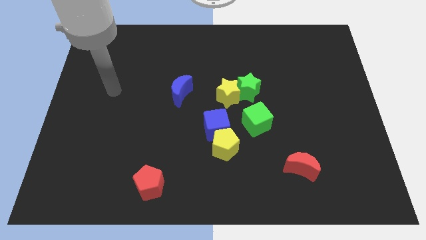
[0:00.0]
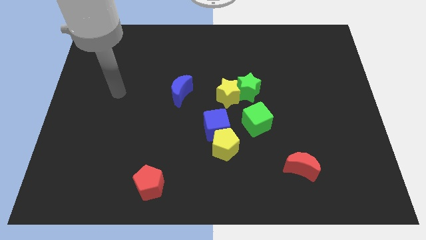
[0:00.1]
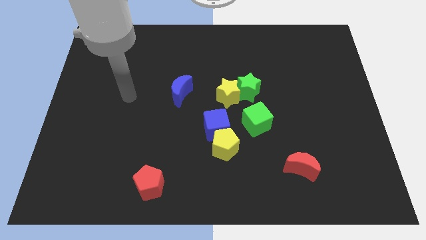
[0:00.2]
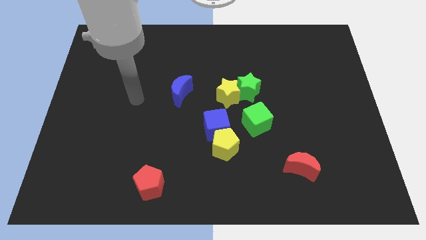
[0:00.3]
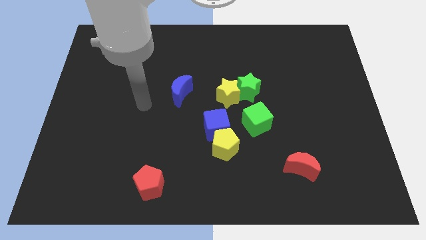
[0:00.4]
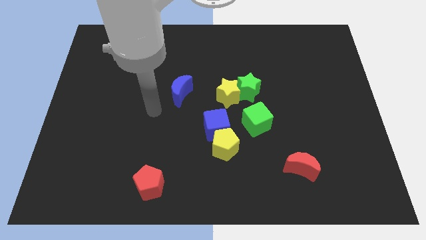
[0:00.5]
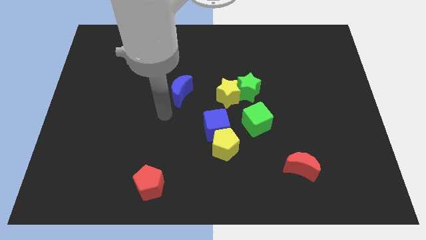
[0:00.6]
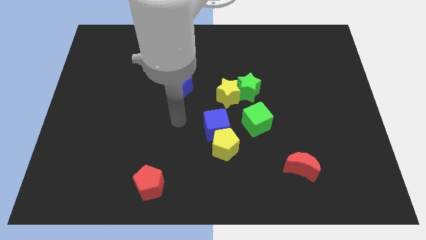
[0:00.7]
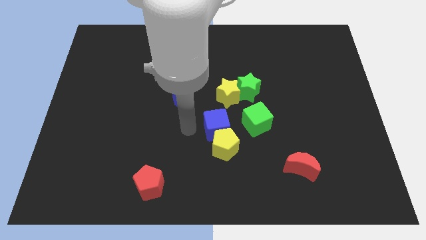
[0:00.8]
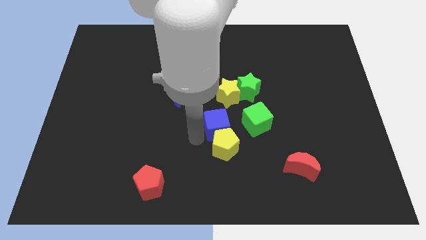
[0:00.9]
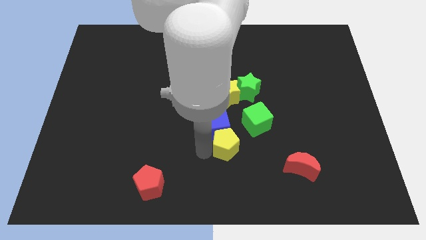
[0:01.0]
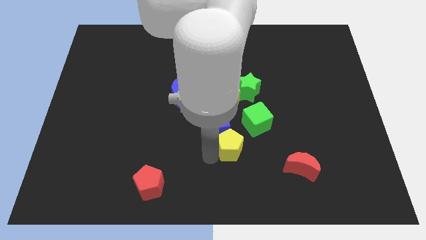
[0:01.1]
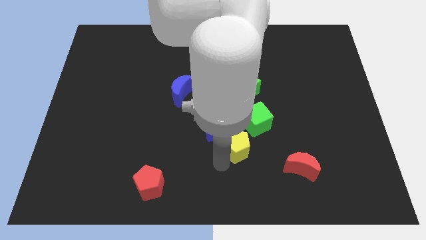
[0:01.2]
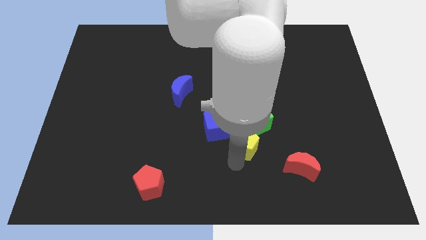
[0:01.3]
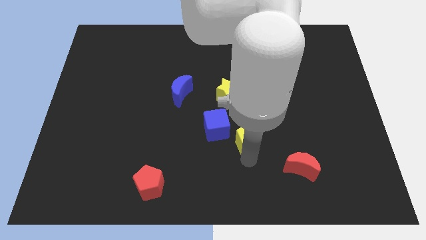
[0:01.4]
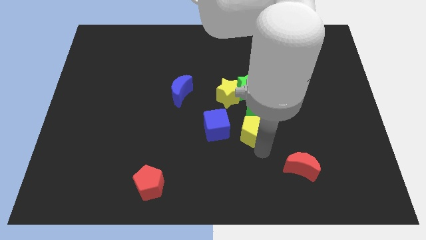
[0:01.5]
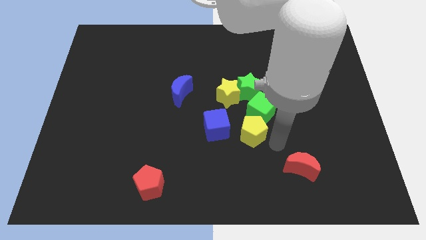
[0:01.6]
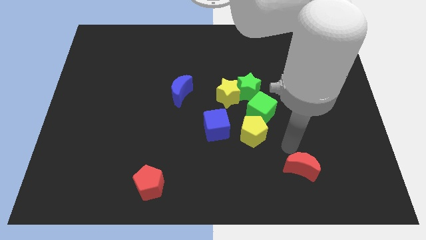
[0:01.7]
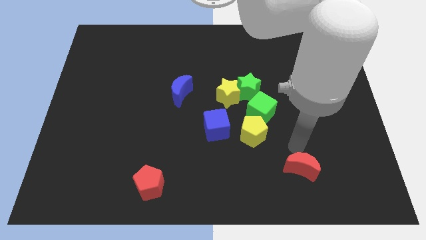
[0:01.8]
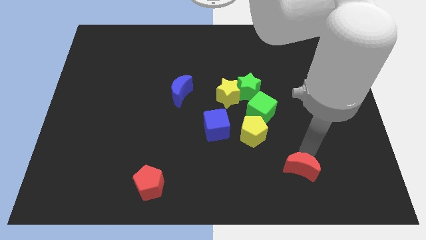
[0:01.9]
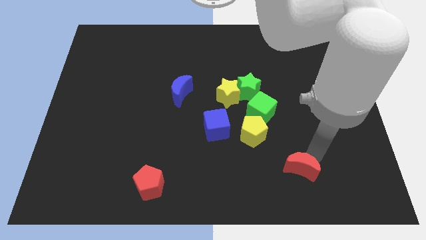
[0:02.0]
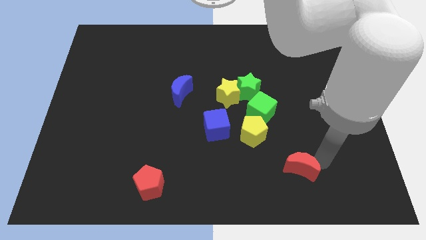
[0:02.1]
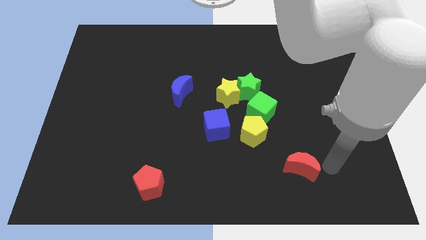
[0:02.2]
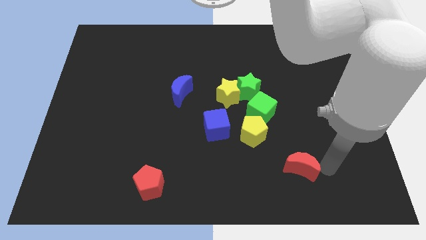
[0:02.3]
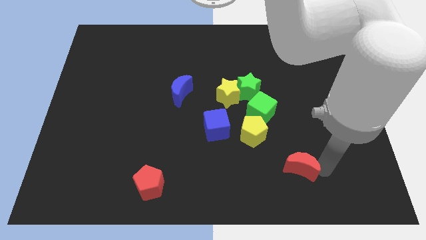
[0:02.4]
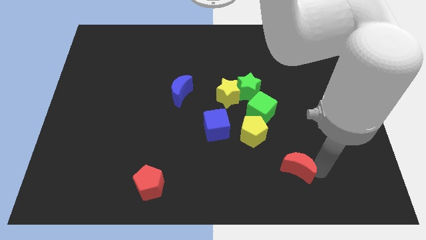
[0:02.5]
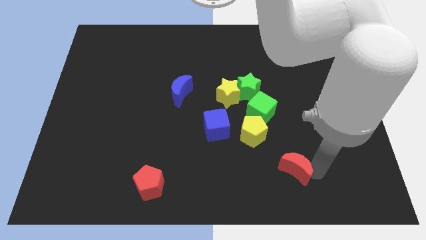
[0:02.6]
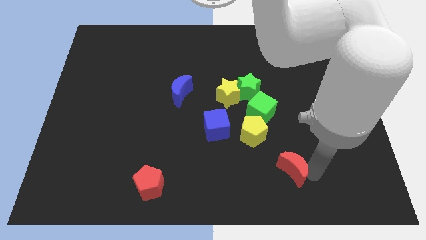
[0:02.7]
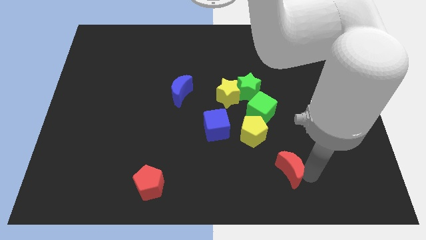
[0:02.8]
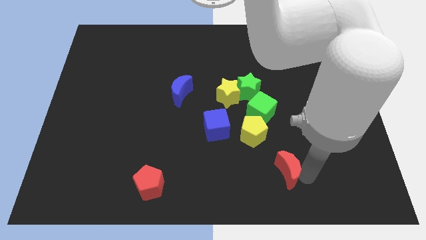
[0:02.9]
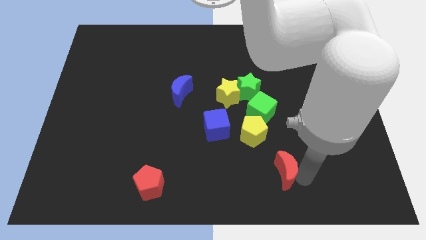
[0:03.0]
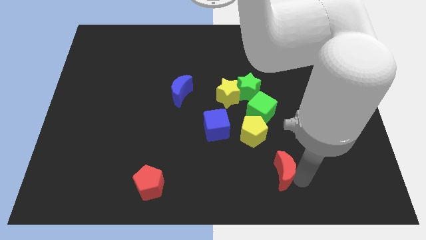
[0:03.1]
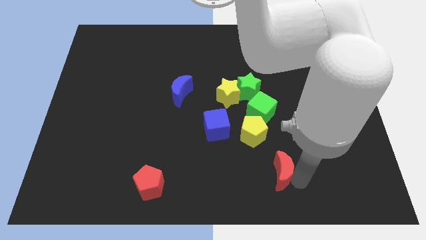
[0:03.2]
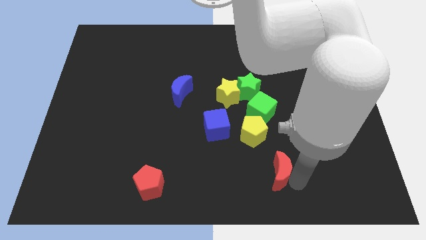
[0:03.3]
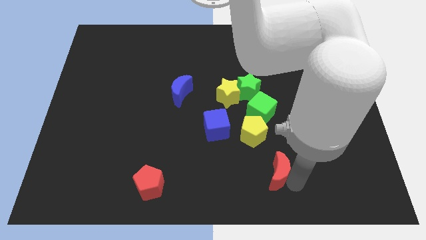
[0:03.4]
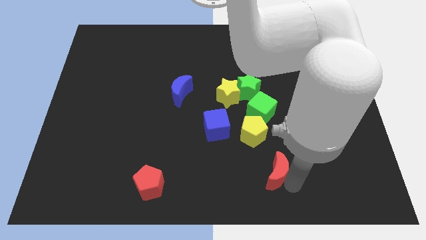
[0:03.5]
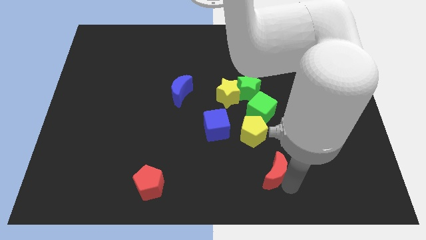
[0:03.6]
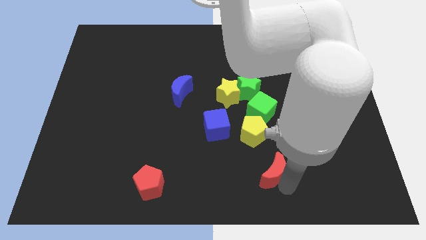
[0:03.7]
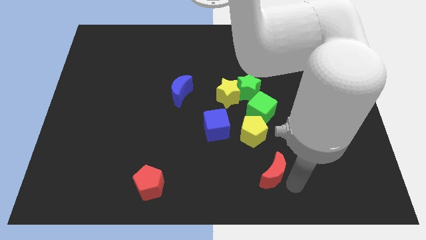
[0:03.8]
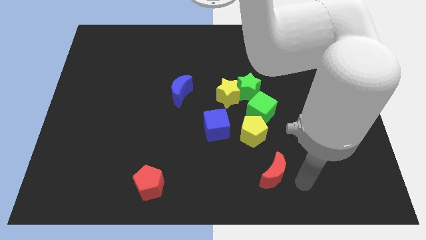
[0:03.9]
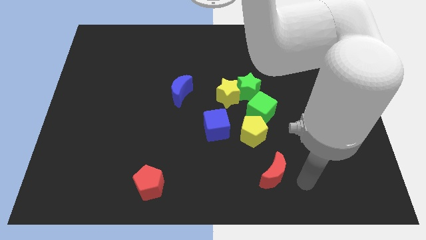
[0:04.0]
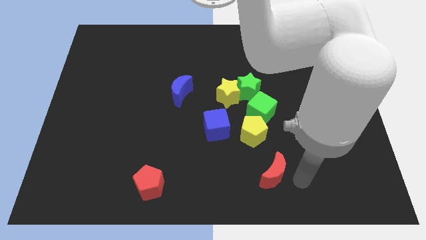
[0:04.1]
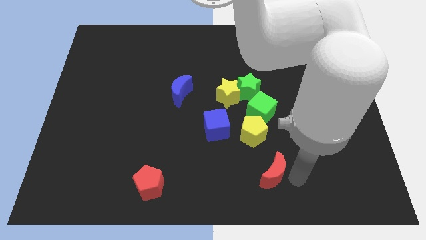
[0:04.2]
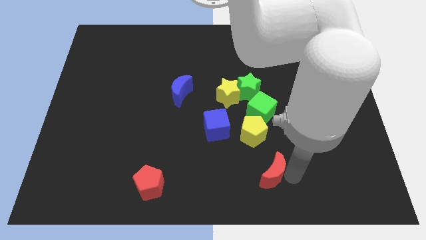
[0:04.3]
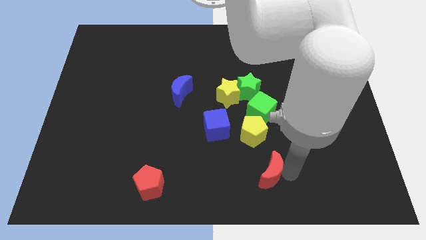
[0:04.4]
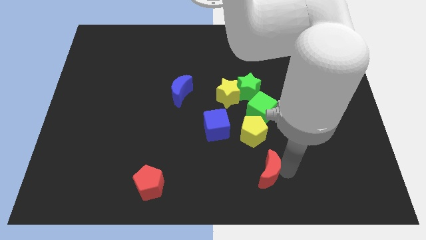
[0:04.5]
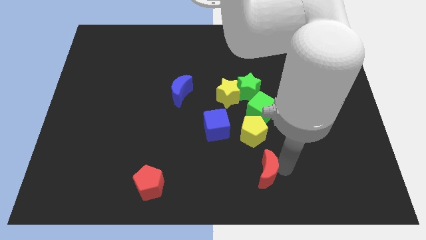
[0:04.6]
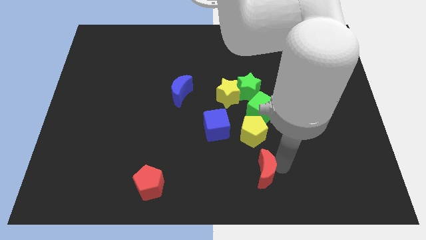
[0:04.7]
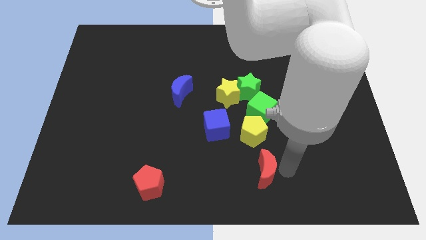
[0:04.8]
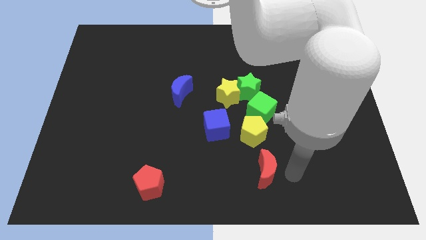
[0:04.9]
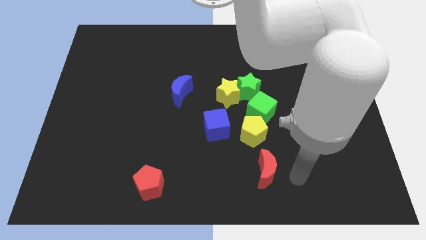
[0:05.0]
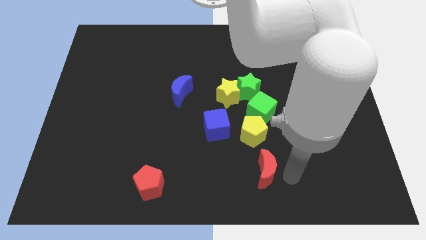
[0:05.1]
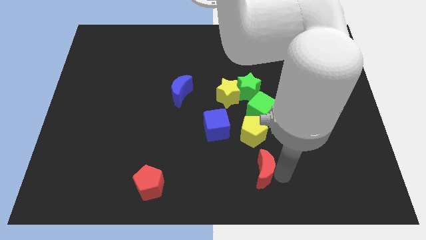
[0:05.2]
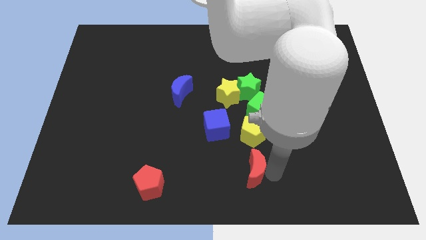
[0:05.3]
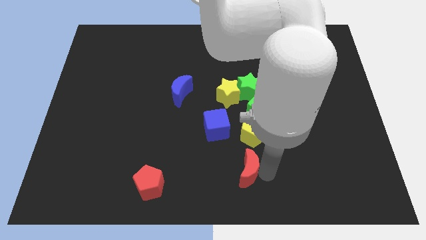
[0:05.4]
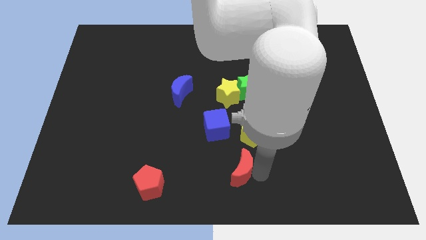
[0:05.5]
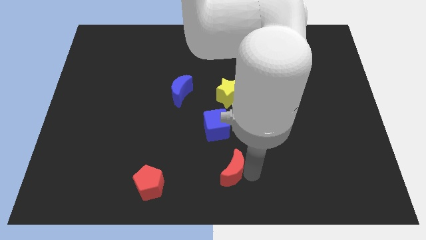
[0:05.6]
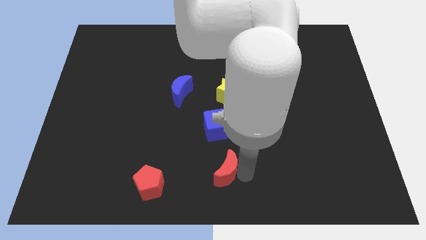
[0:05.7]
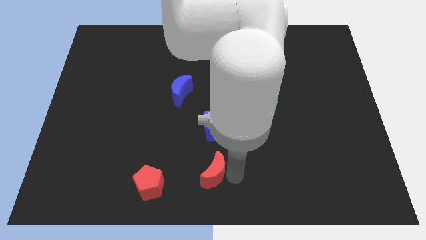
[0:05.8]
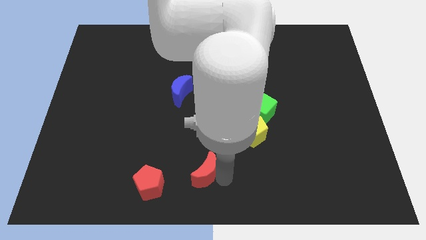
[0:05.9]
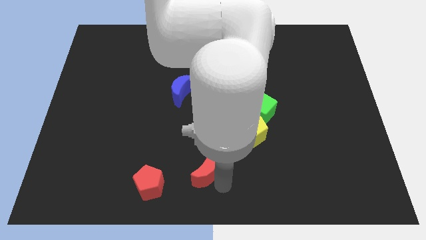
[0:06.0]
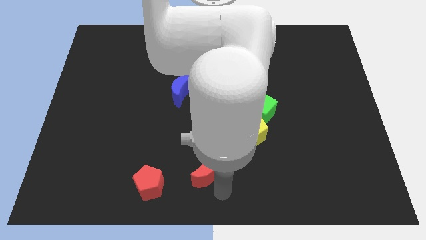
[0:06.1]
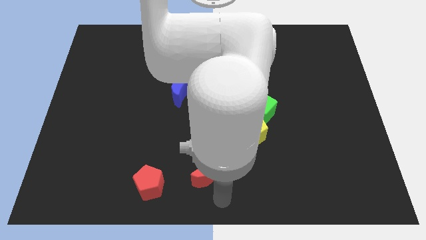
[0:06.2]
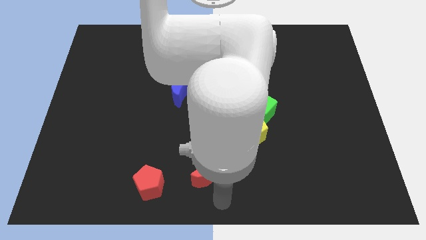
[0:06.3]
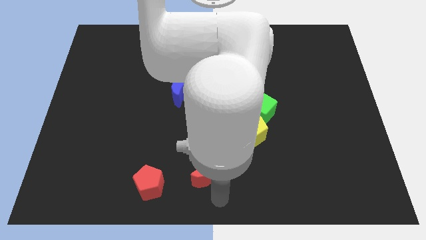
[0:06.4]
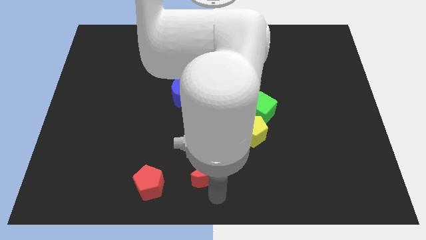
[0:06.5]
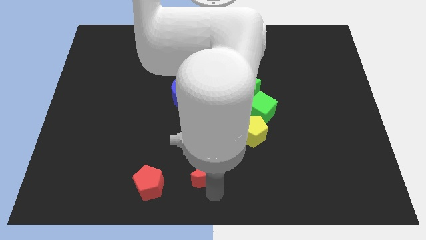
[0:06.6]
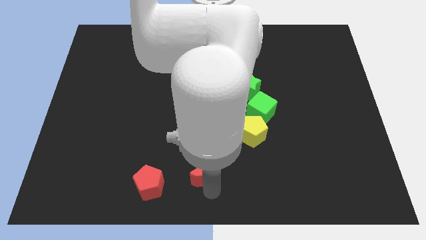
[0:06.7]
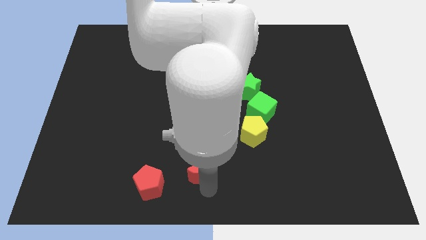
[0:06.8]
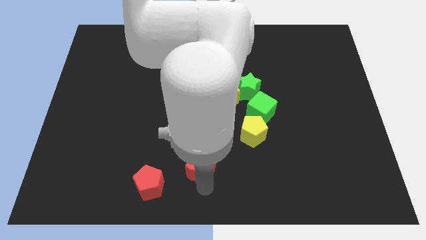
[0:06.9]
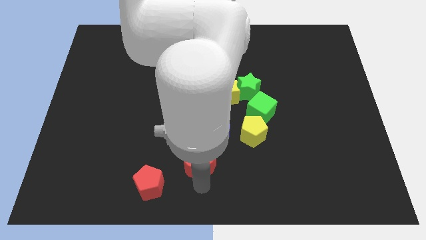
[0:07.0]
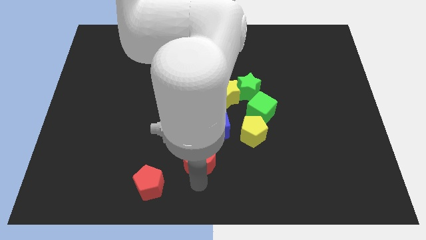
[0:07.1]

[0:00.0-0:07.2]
move the red moon to the bottom left of the blue cube

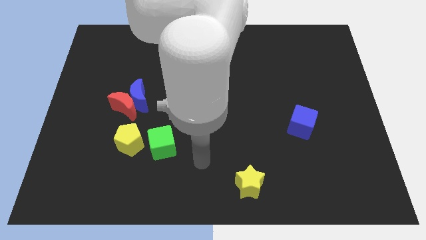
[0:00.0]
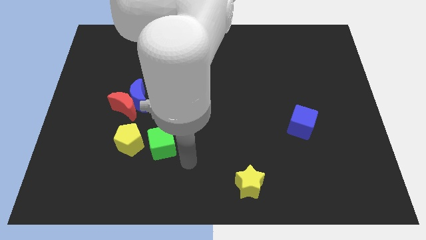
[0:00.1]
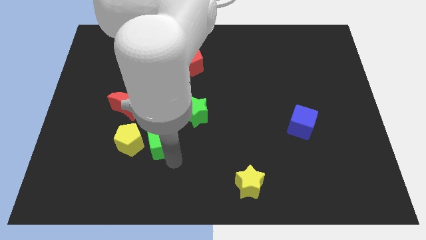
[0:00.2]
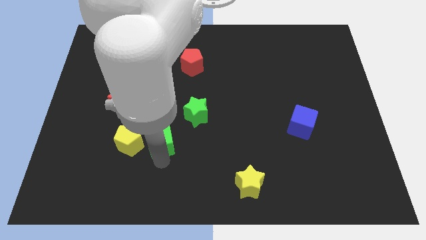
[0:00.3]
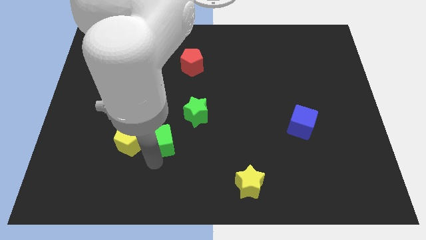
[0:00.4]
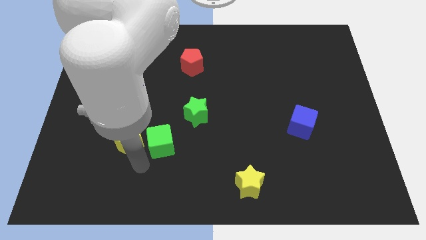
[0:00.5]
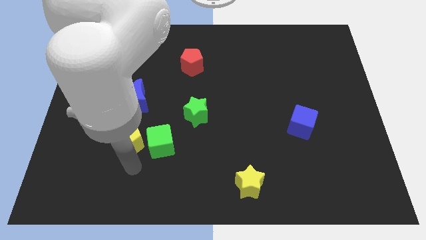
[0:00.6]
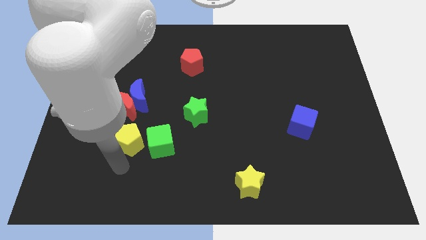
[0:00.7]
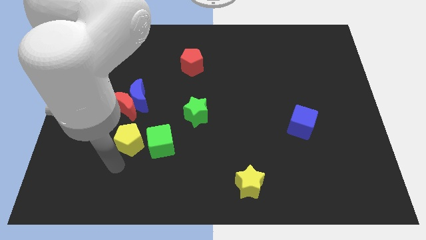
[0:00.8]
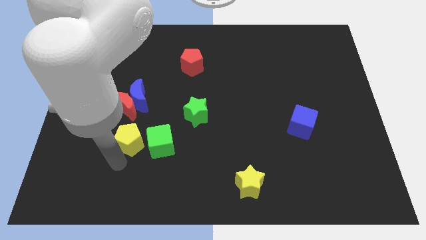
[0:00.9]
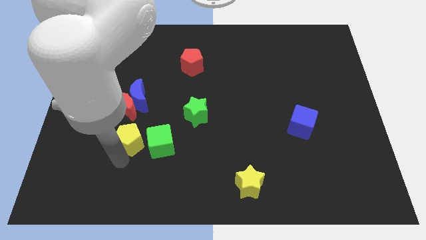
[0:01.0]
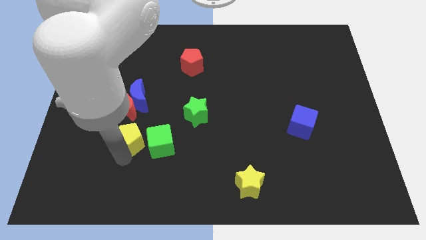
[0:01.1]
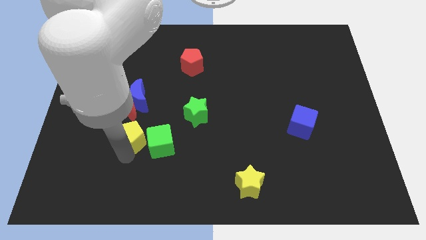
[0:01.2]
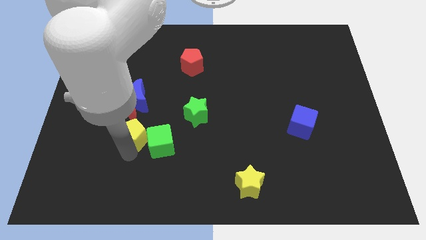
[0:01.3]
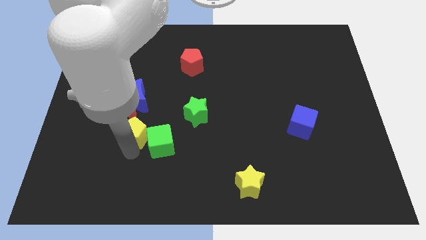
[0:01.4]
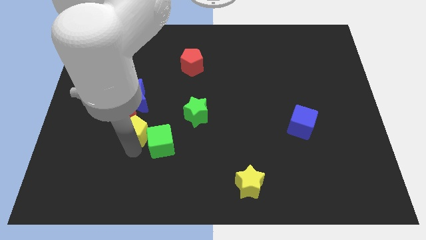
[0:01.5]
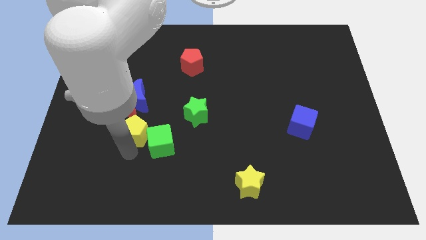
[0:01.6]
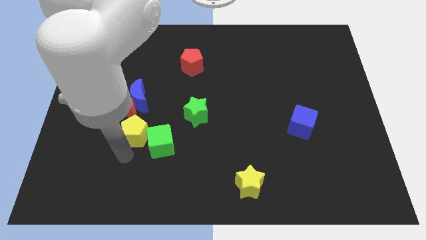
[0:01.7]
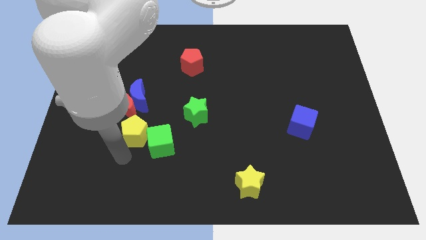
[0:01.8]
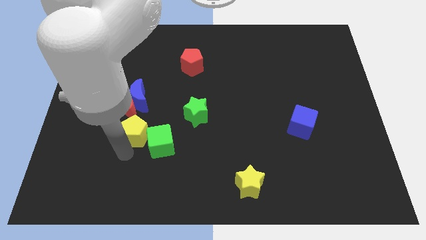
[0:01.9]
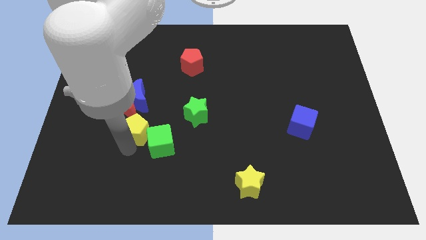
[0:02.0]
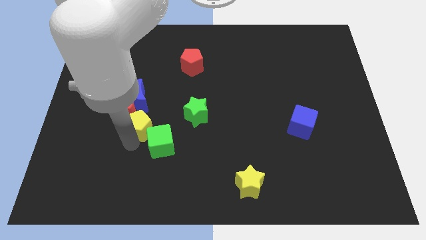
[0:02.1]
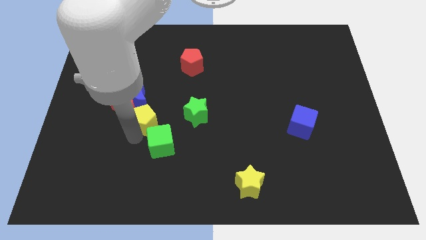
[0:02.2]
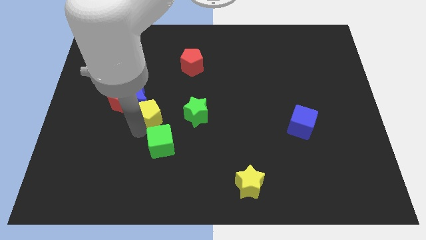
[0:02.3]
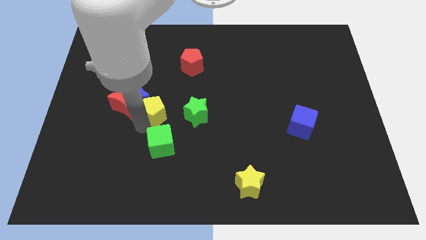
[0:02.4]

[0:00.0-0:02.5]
move the yellow pentagon to the right of the blue moon
